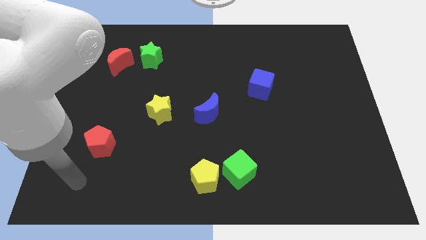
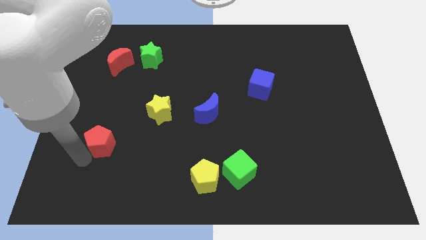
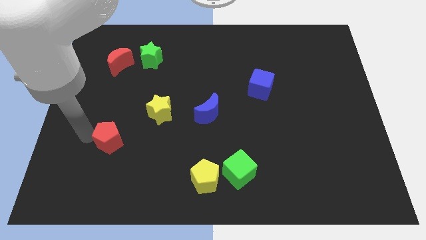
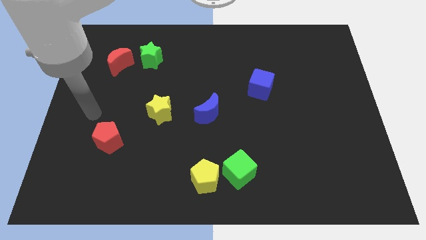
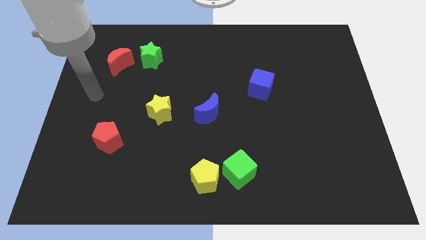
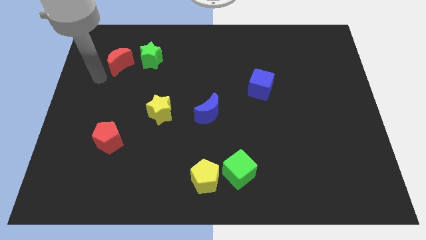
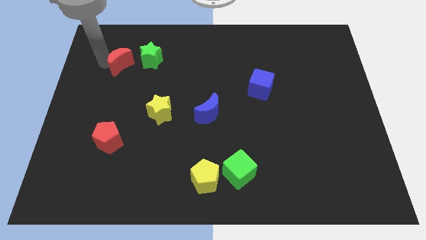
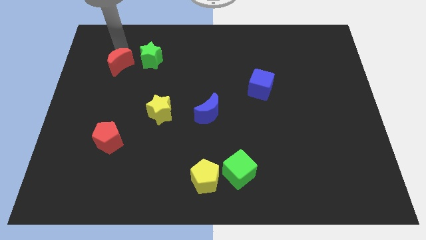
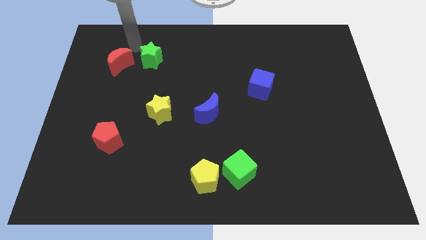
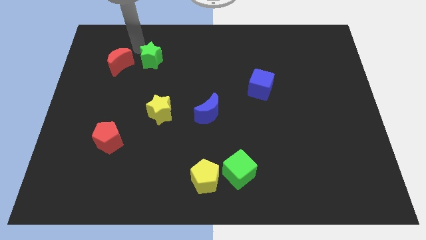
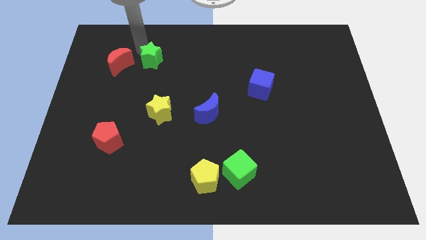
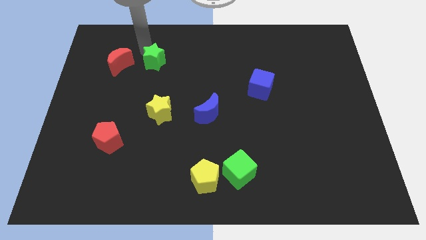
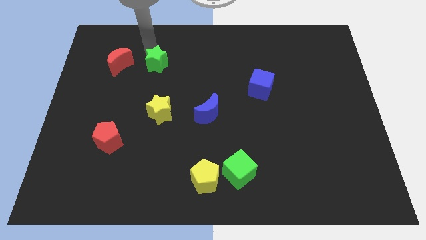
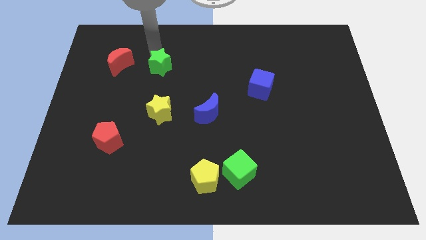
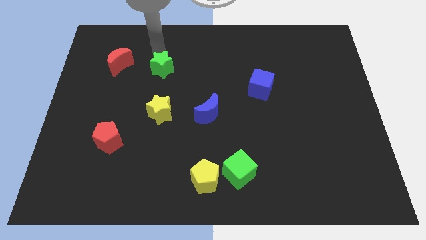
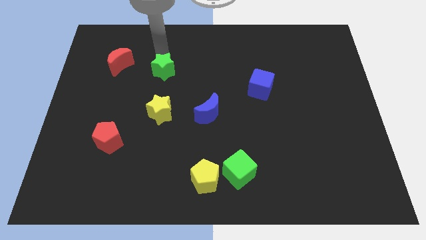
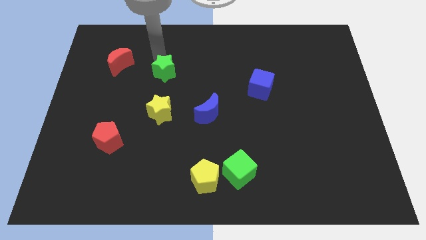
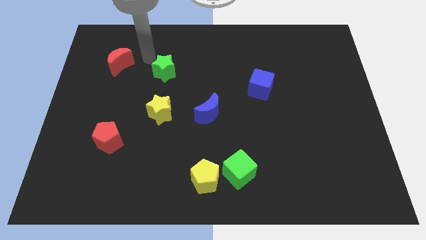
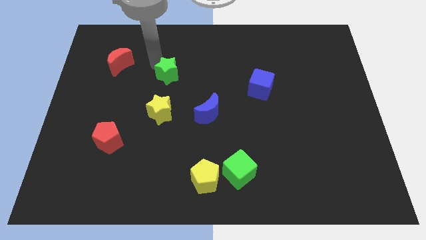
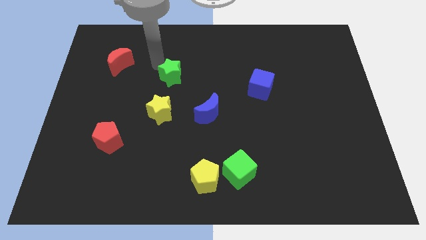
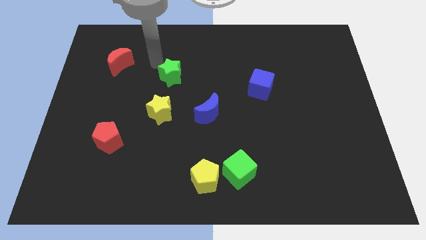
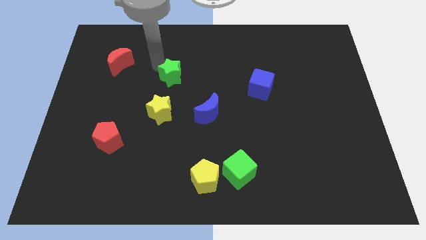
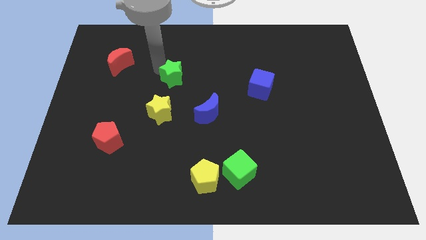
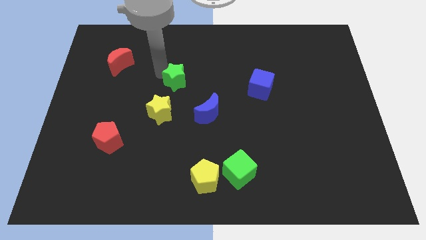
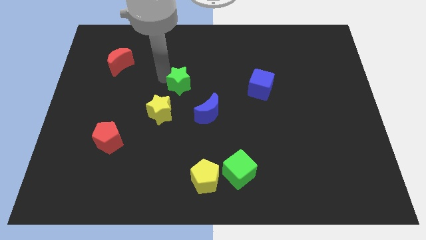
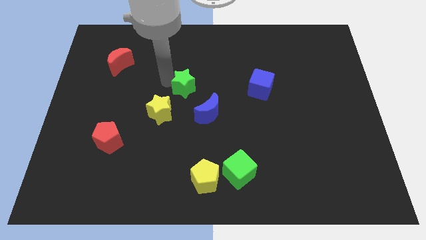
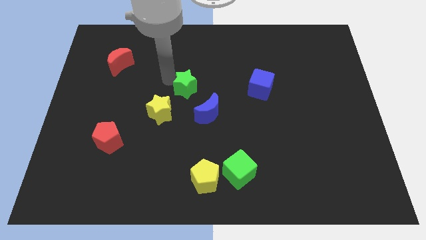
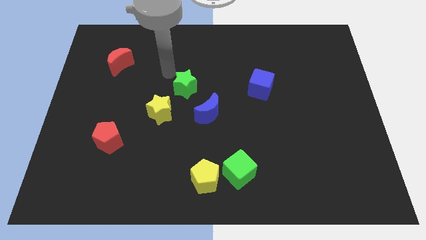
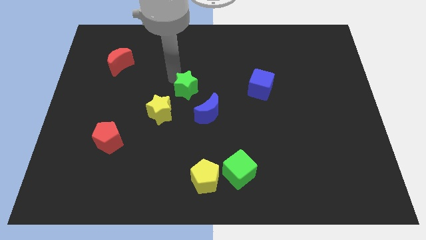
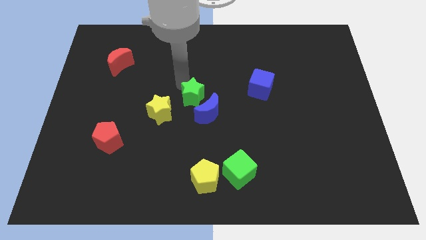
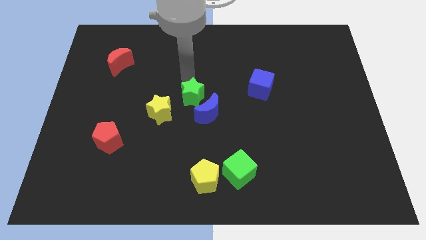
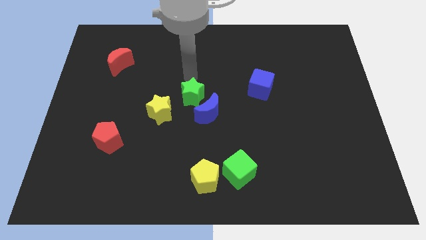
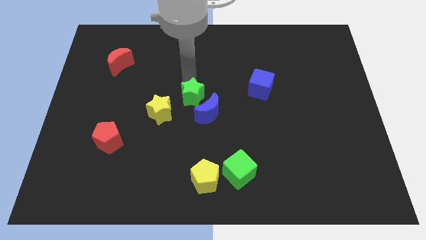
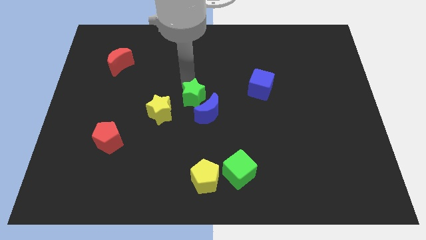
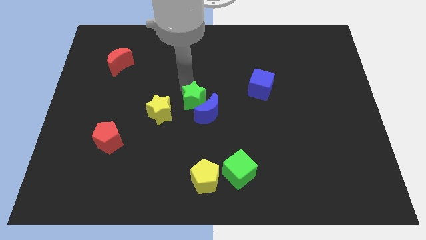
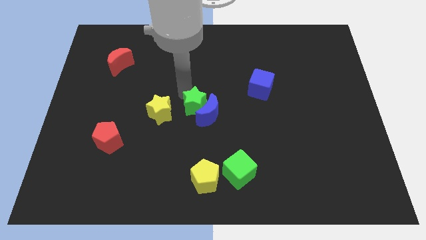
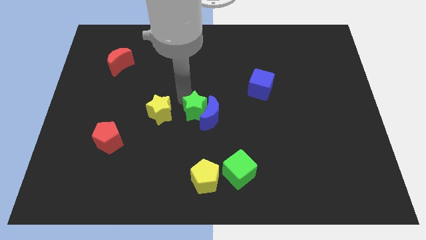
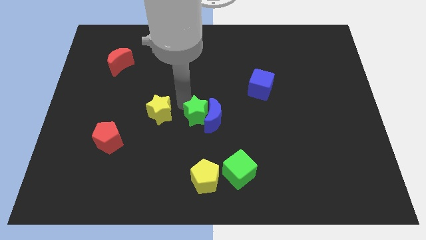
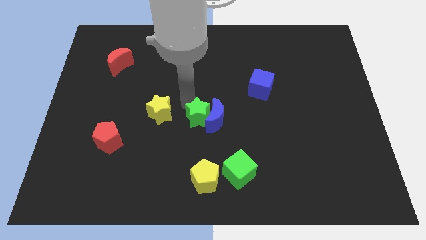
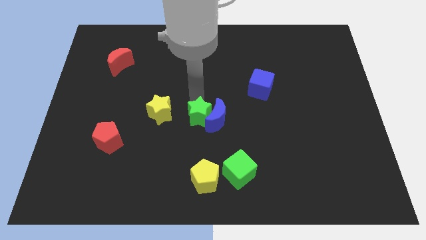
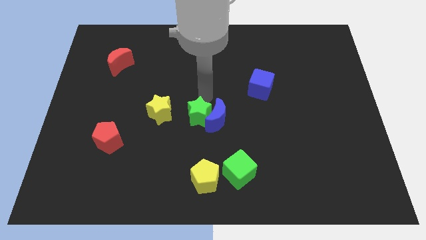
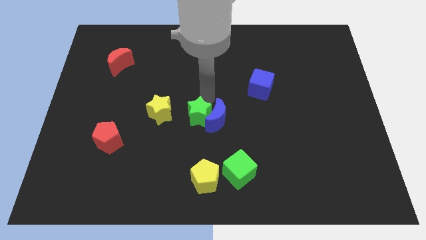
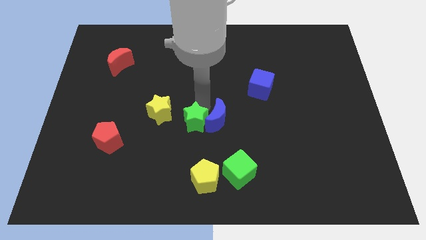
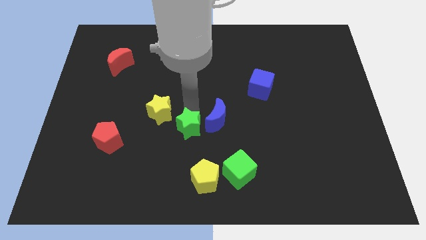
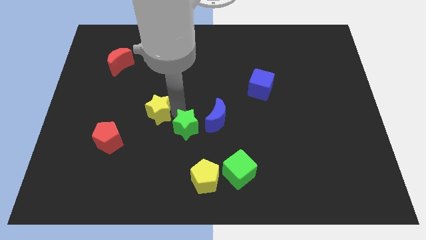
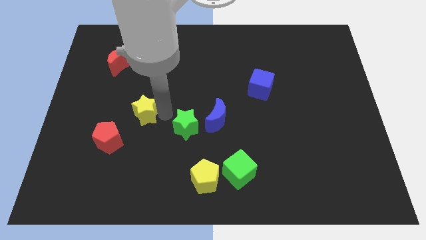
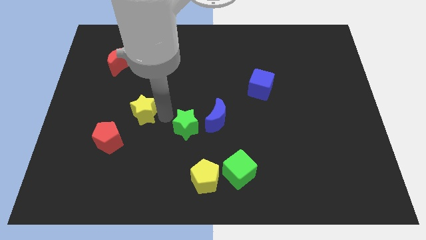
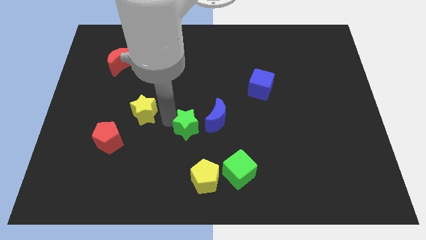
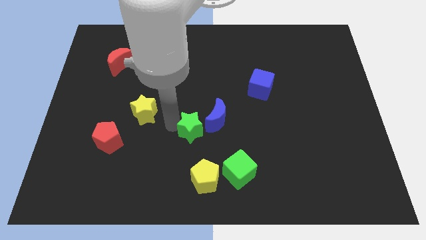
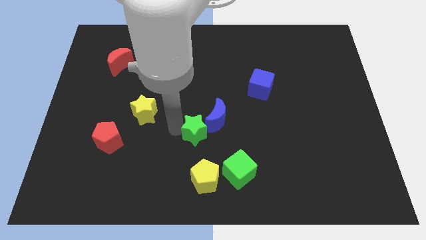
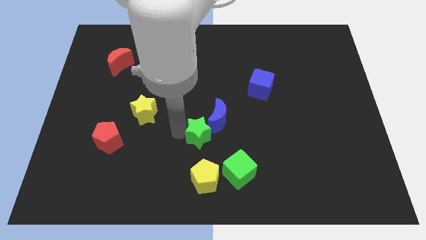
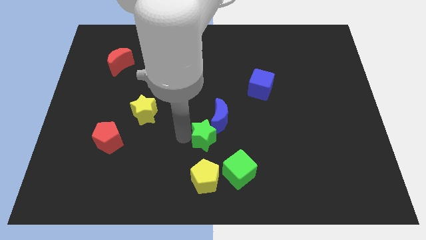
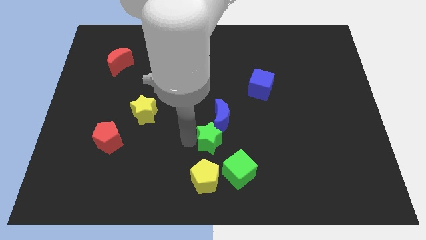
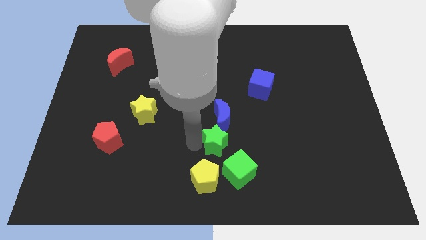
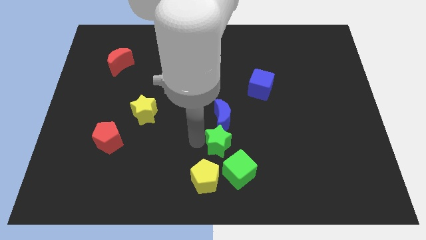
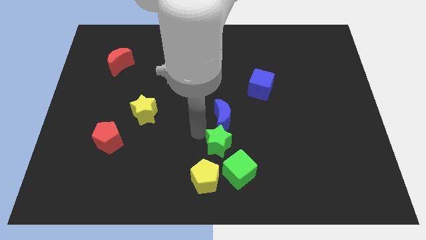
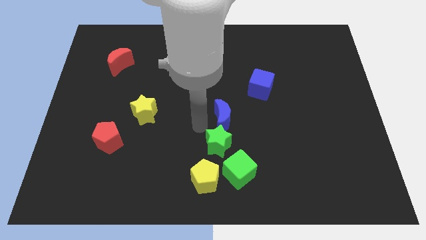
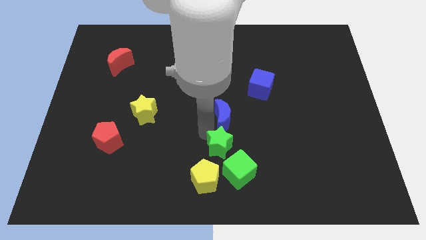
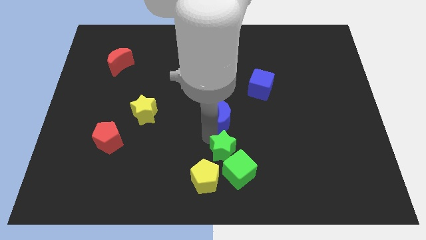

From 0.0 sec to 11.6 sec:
slide the green star to the green cube

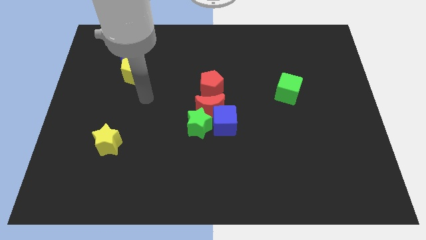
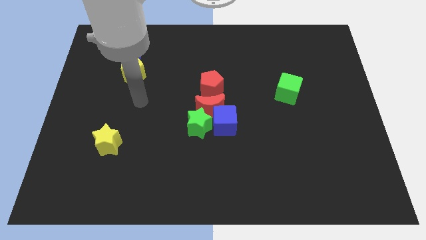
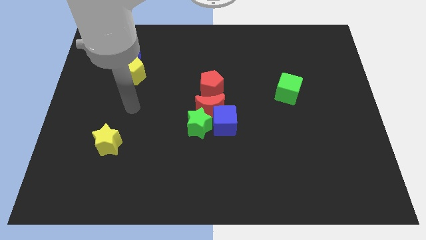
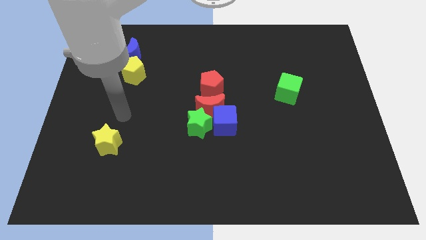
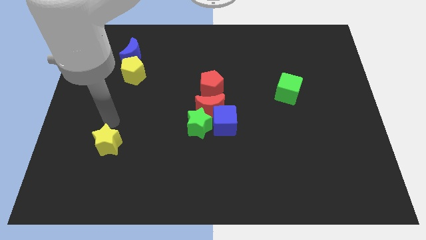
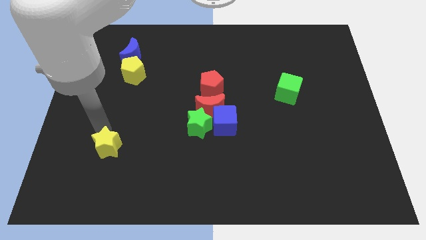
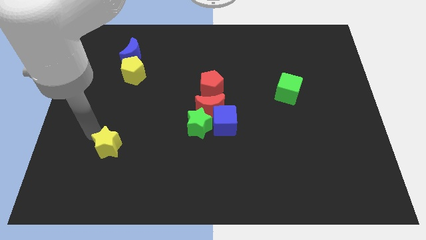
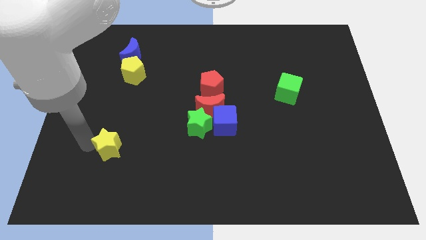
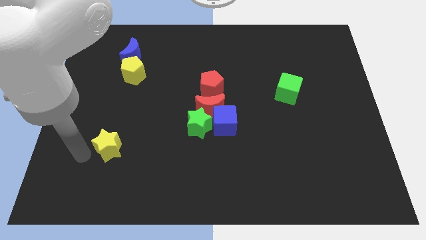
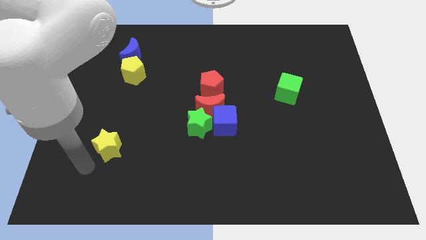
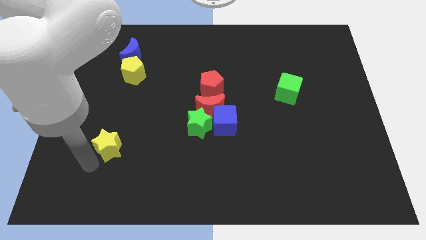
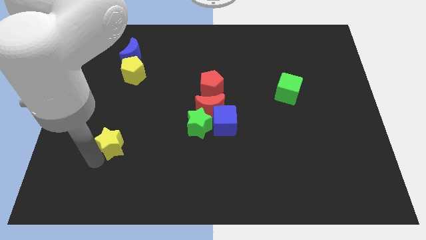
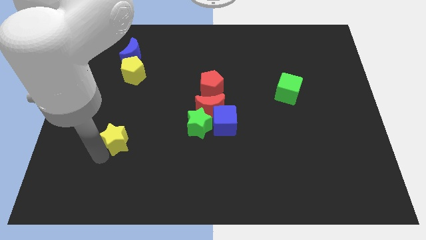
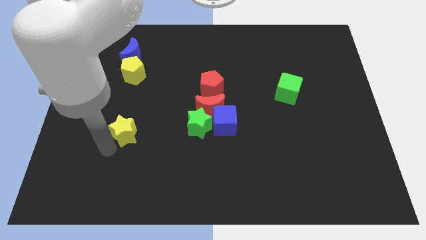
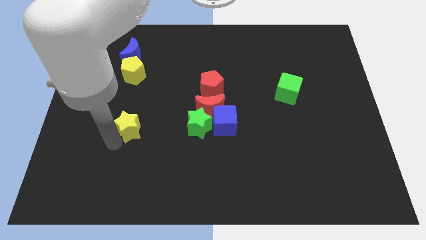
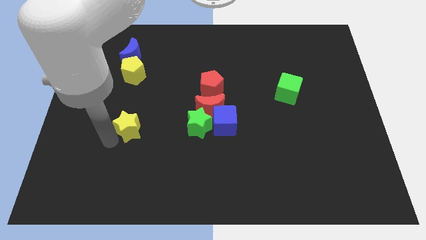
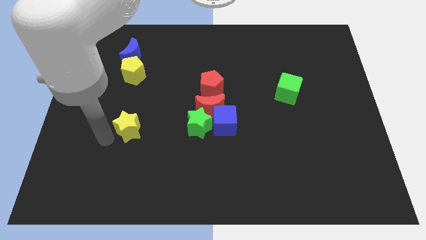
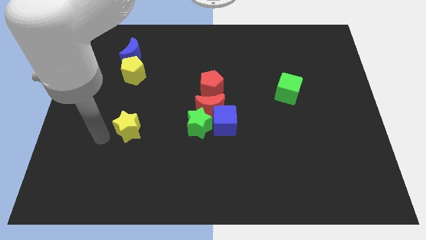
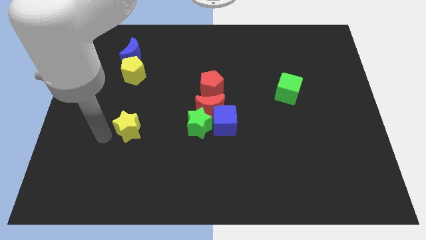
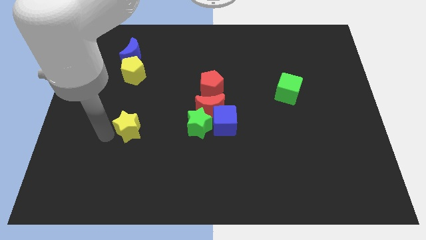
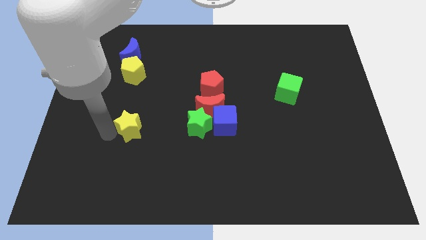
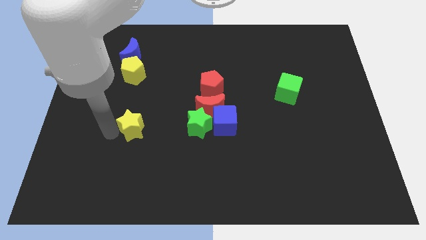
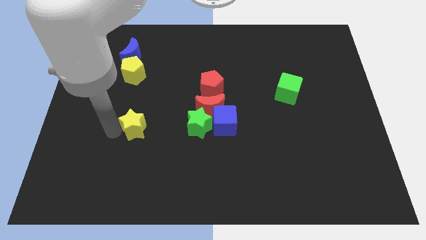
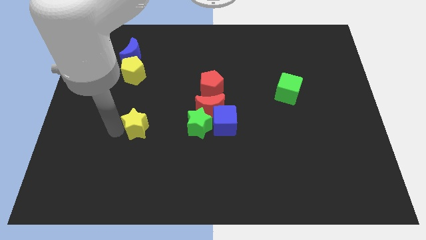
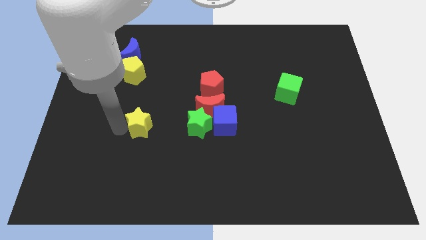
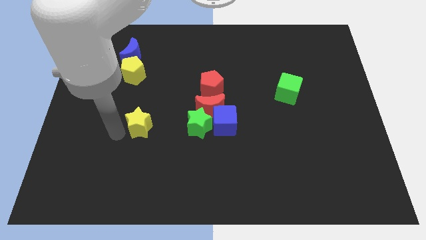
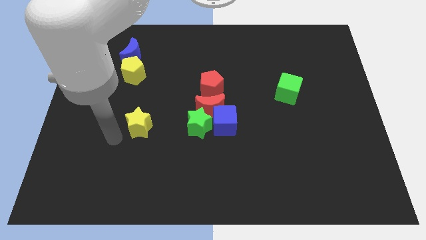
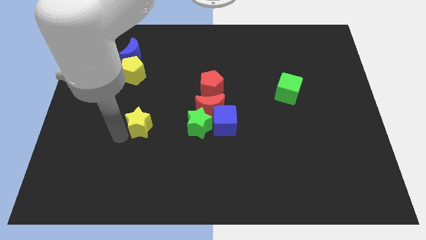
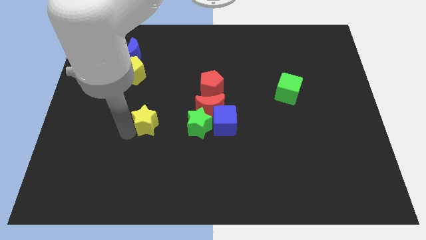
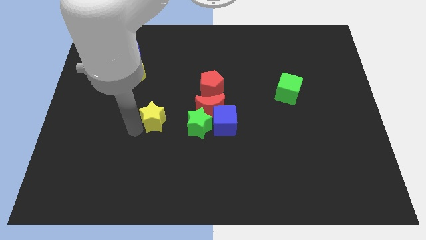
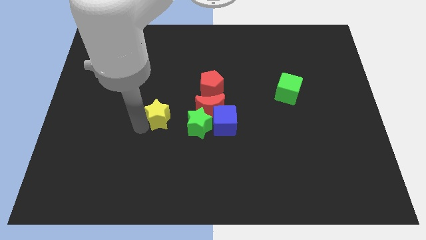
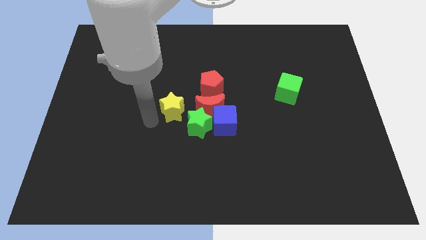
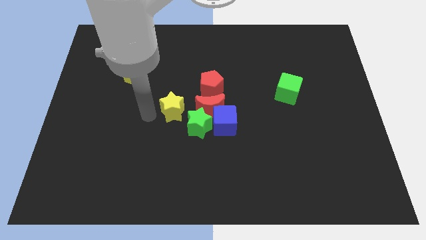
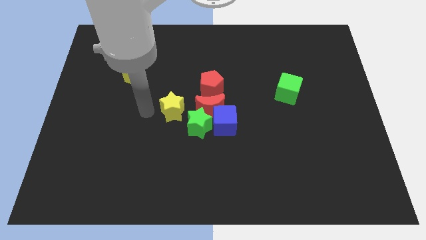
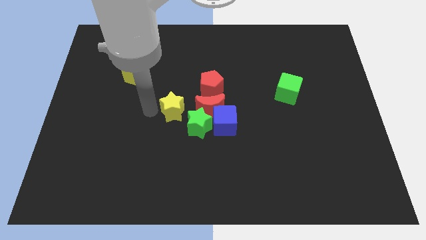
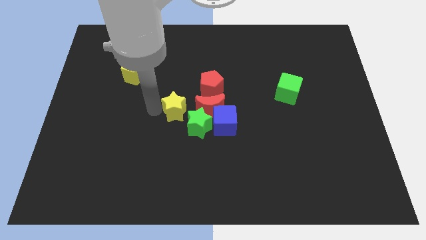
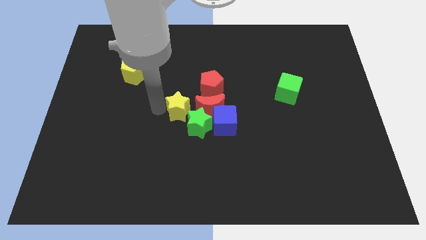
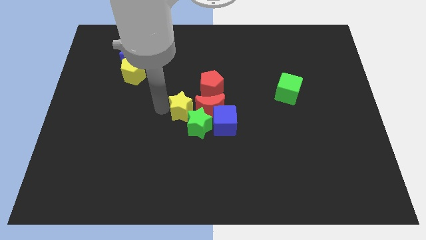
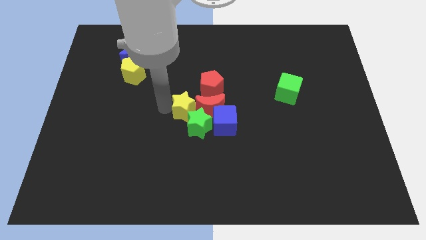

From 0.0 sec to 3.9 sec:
move the yellow star next to the red moon
